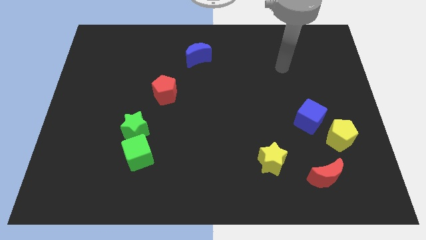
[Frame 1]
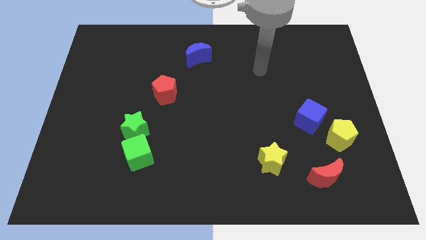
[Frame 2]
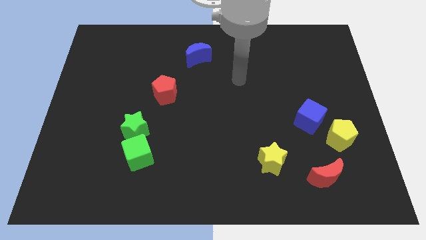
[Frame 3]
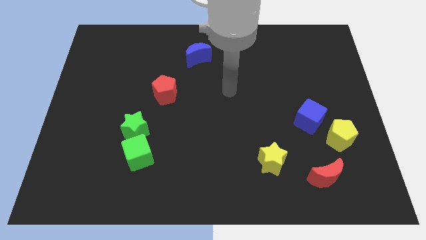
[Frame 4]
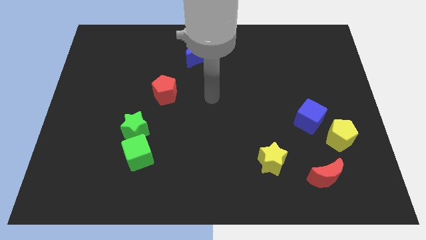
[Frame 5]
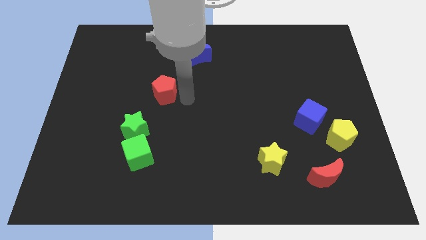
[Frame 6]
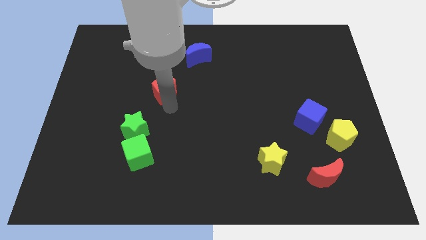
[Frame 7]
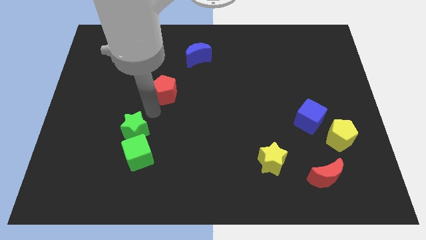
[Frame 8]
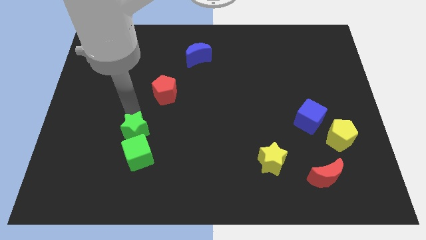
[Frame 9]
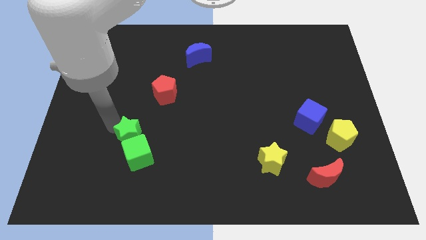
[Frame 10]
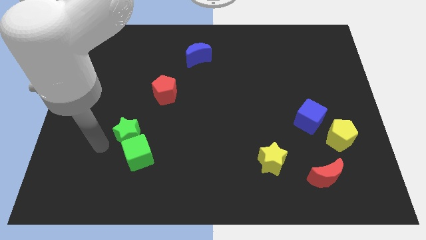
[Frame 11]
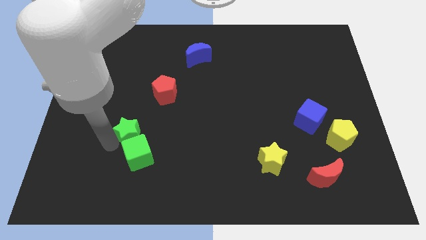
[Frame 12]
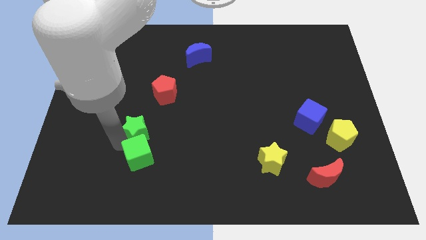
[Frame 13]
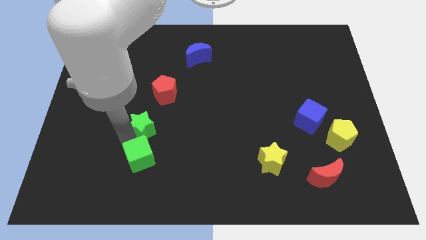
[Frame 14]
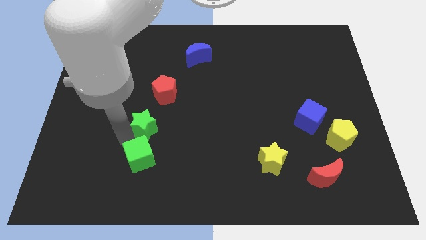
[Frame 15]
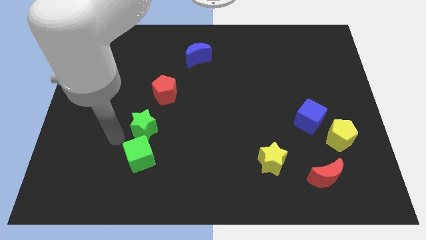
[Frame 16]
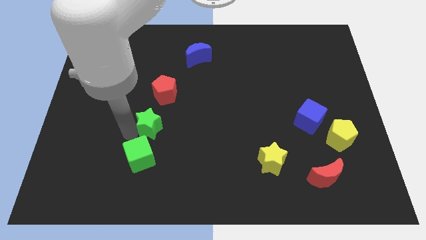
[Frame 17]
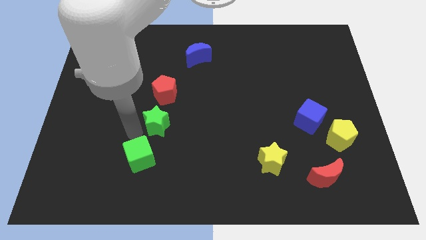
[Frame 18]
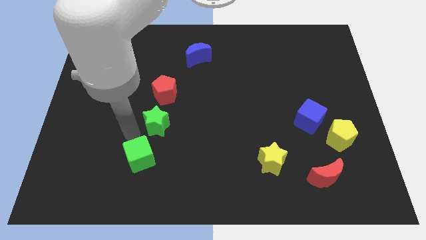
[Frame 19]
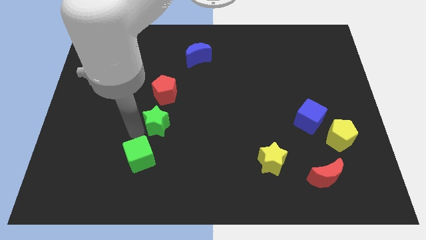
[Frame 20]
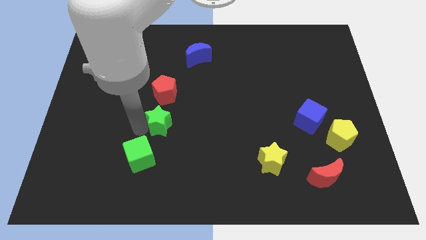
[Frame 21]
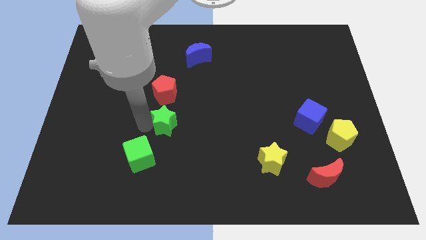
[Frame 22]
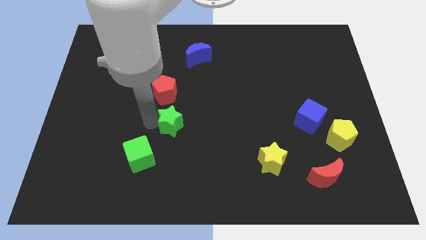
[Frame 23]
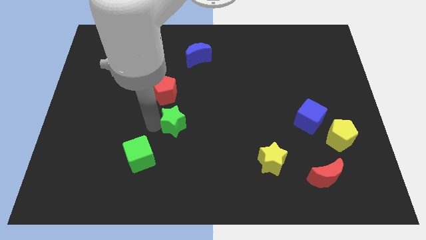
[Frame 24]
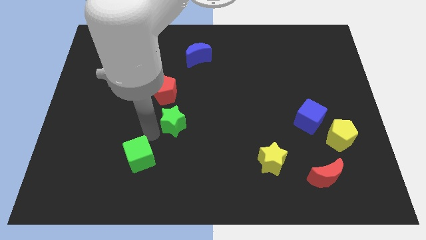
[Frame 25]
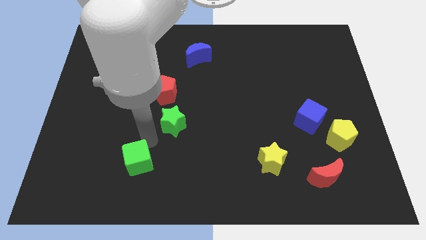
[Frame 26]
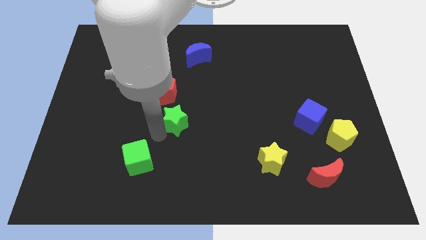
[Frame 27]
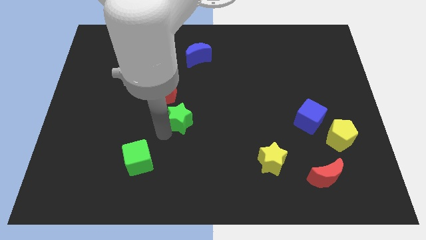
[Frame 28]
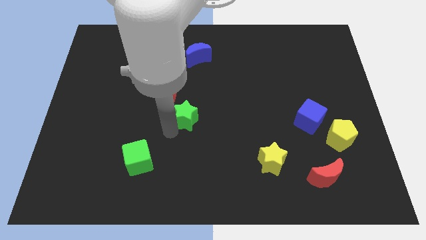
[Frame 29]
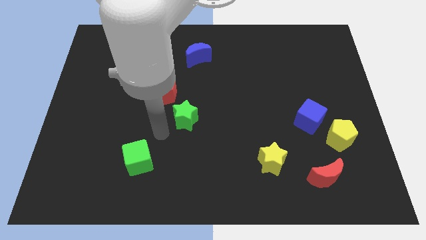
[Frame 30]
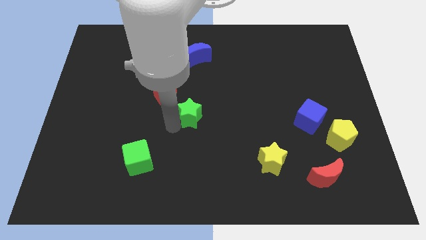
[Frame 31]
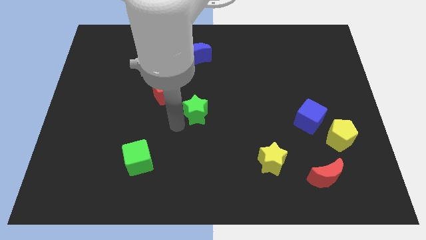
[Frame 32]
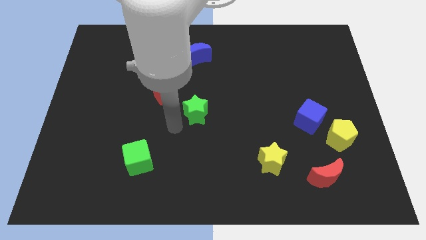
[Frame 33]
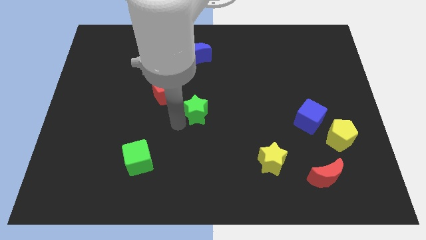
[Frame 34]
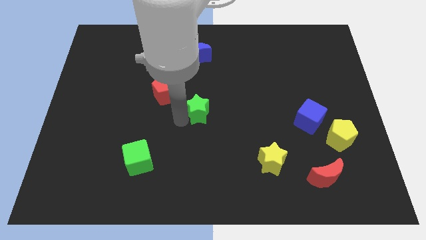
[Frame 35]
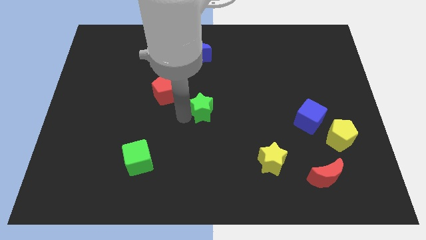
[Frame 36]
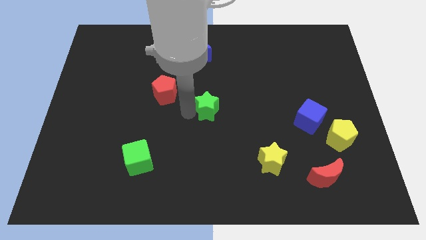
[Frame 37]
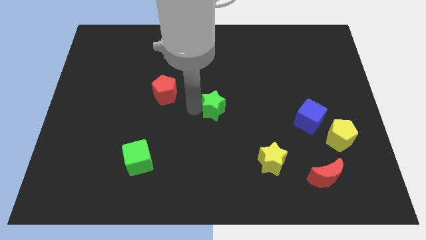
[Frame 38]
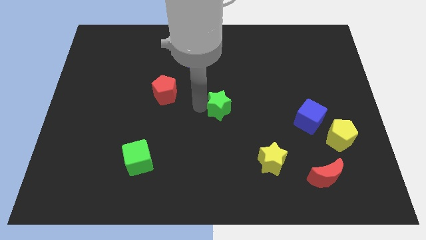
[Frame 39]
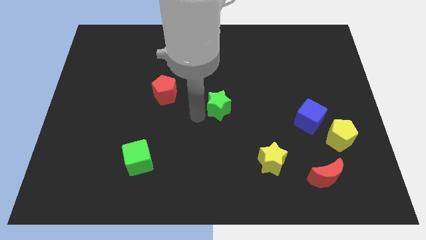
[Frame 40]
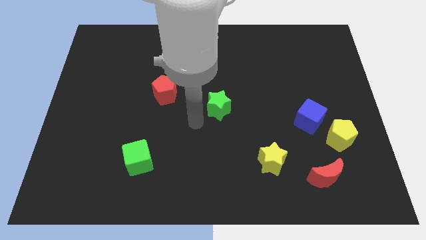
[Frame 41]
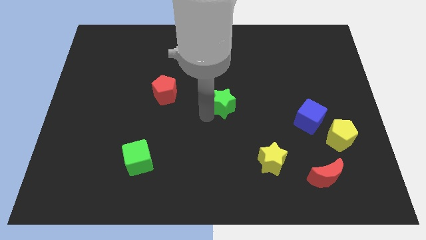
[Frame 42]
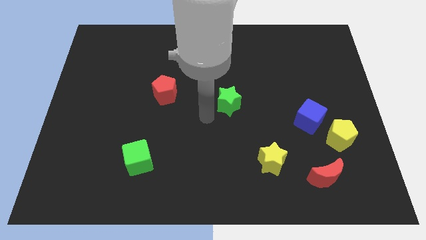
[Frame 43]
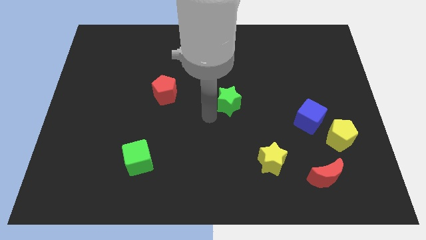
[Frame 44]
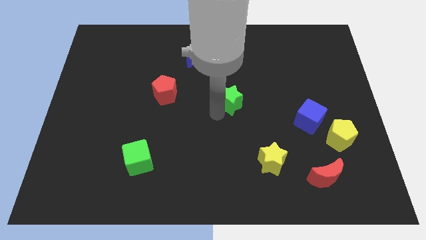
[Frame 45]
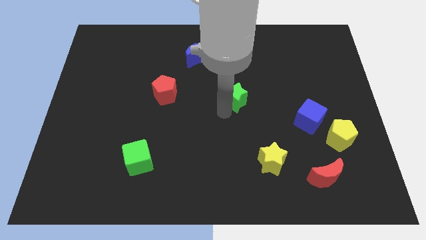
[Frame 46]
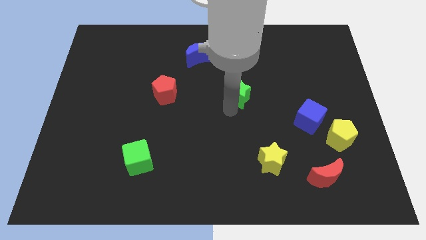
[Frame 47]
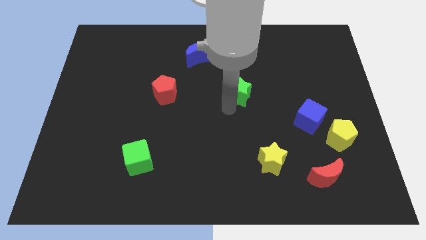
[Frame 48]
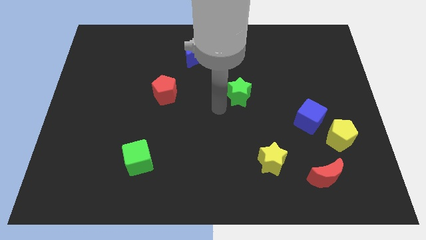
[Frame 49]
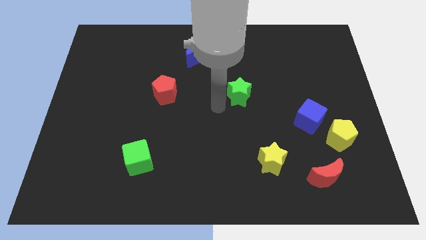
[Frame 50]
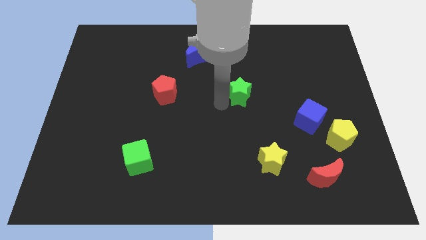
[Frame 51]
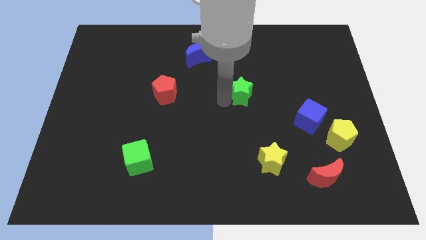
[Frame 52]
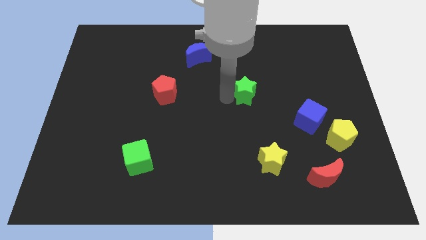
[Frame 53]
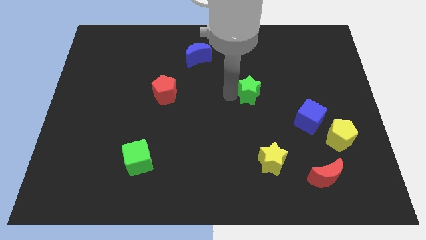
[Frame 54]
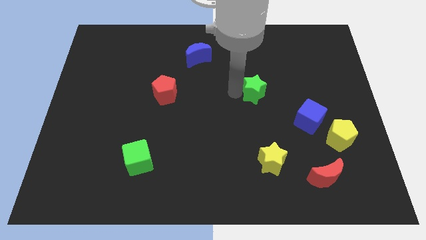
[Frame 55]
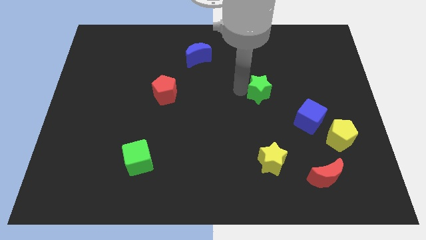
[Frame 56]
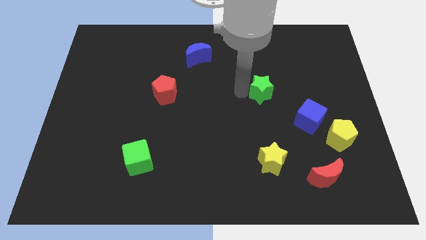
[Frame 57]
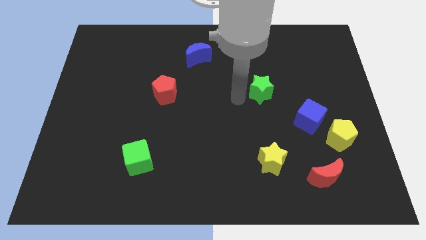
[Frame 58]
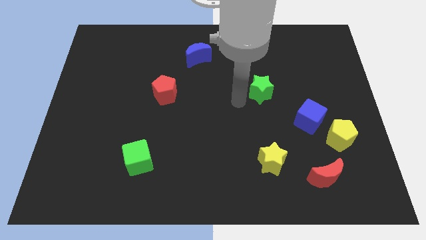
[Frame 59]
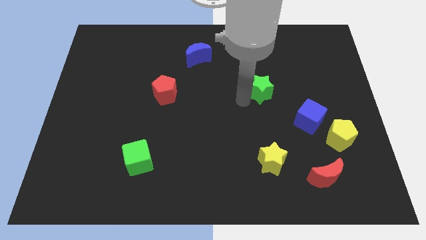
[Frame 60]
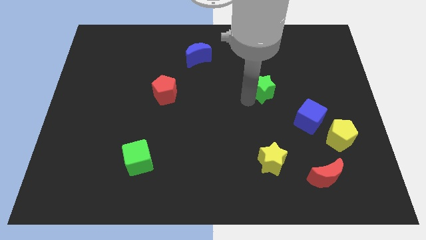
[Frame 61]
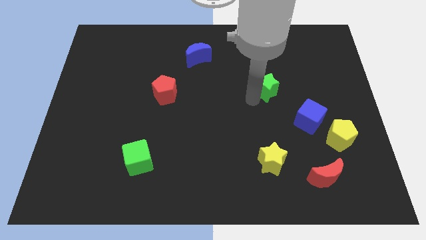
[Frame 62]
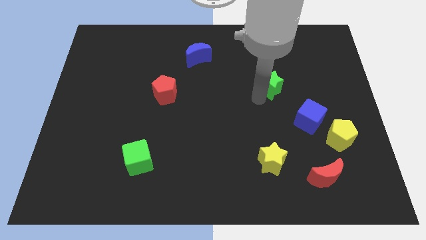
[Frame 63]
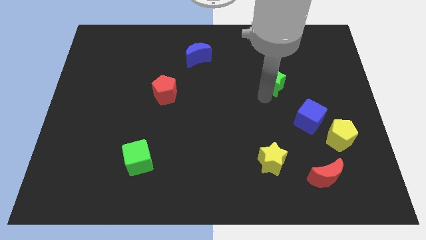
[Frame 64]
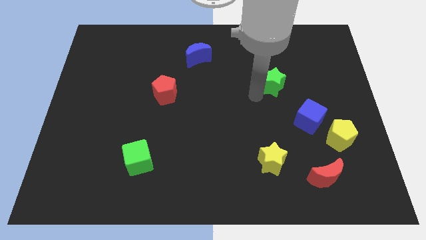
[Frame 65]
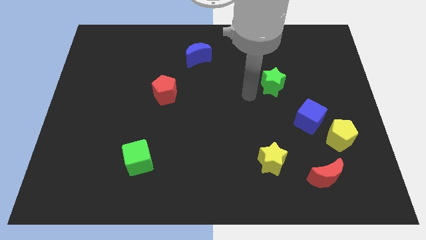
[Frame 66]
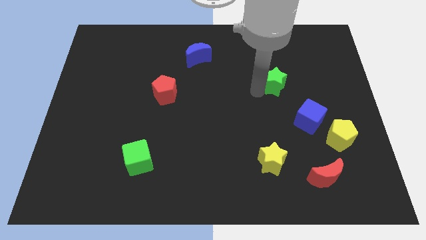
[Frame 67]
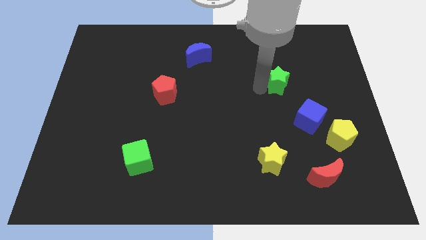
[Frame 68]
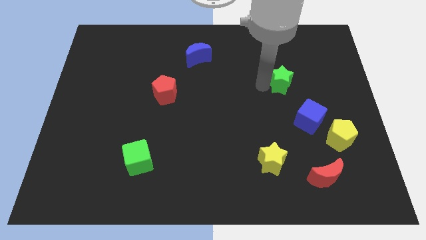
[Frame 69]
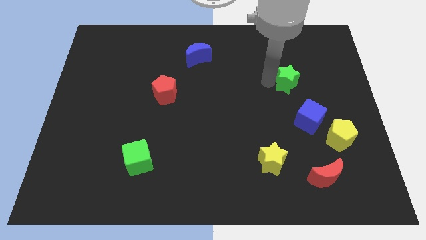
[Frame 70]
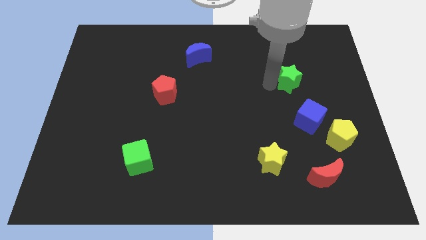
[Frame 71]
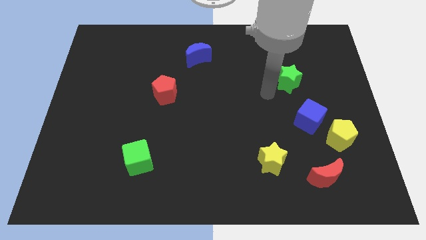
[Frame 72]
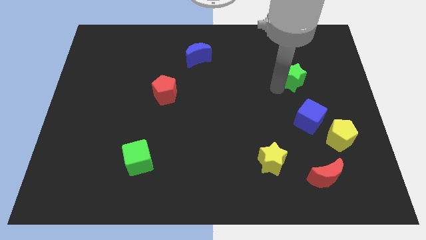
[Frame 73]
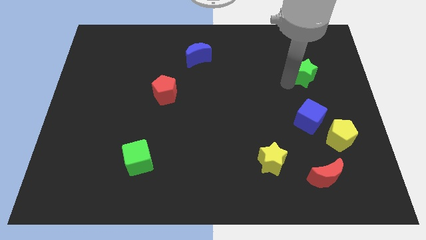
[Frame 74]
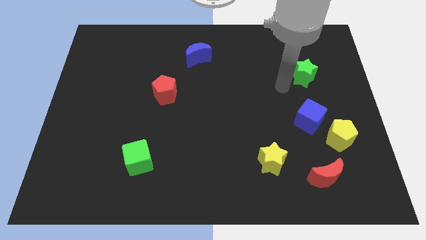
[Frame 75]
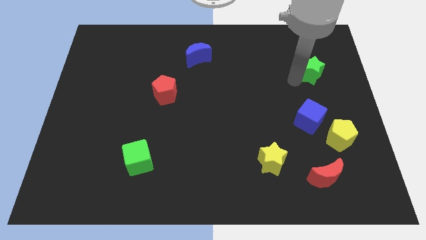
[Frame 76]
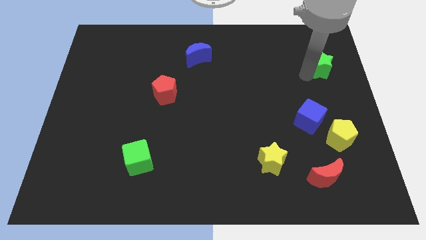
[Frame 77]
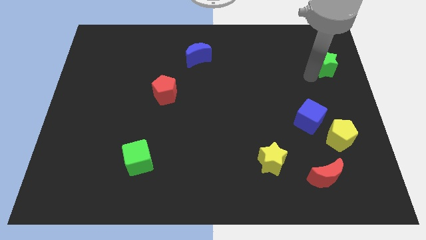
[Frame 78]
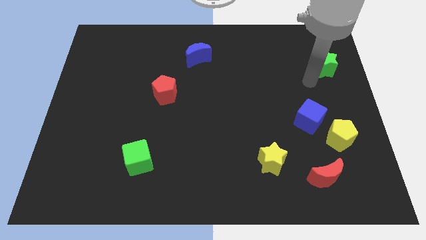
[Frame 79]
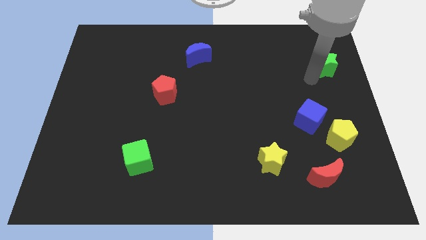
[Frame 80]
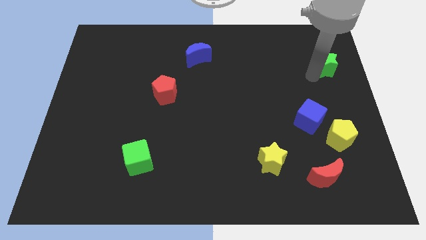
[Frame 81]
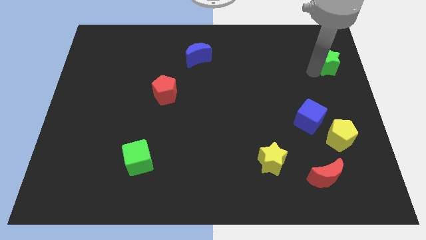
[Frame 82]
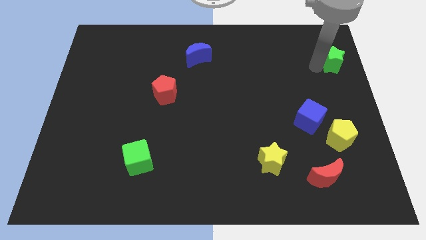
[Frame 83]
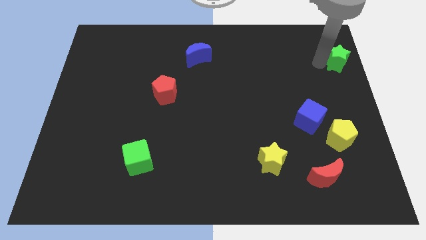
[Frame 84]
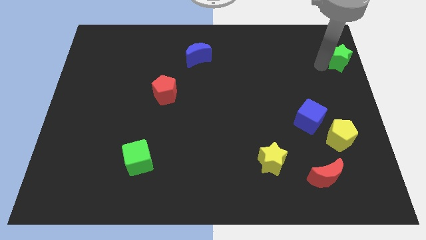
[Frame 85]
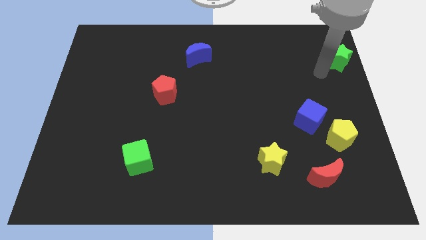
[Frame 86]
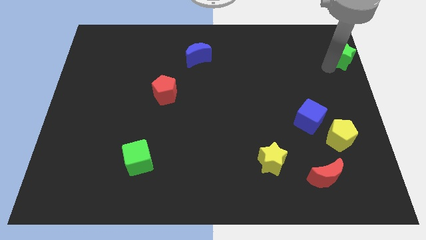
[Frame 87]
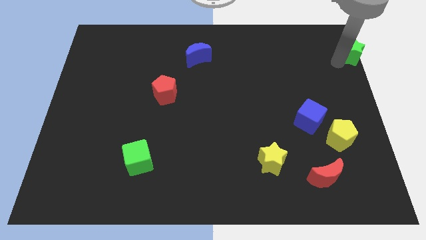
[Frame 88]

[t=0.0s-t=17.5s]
push the green star to the upper right corner
